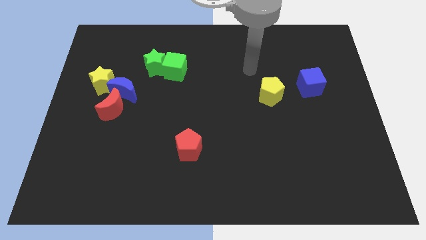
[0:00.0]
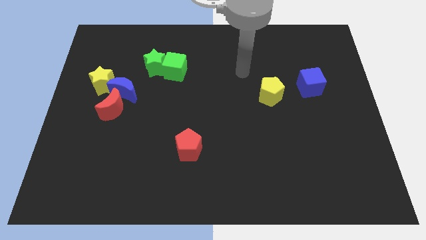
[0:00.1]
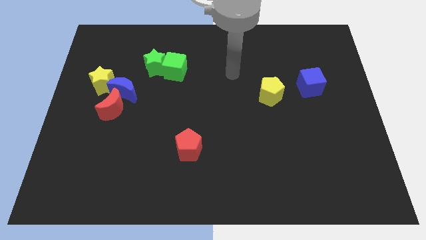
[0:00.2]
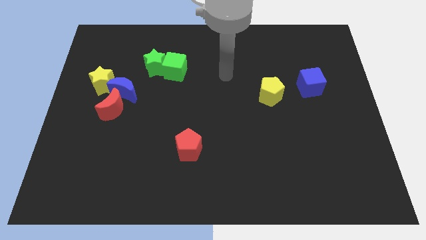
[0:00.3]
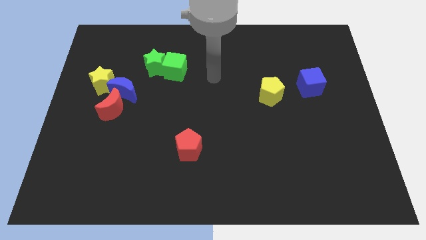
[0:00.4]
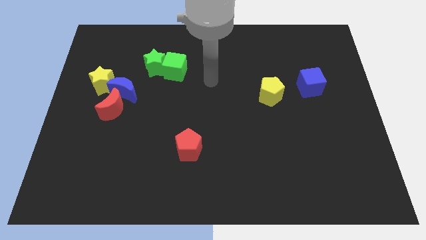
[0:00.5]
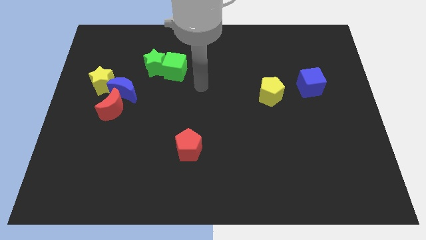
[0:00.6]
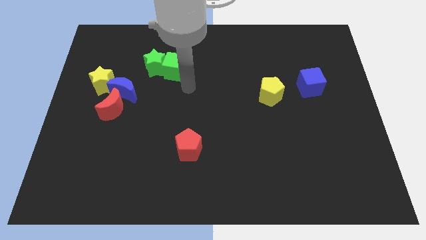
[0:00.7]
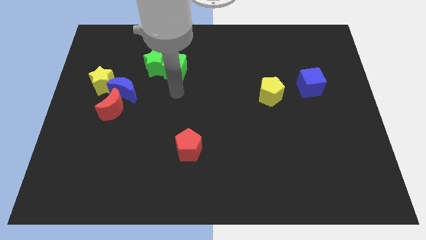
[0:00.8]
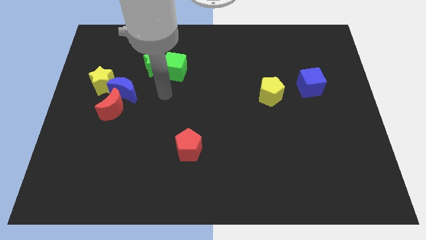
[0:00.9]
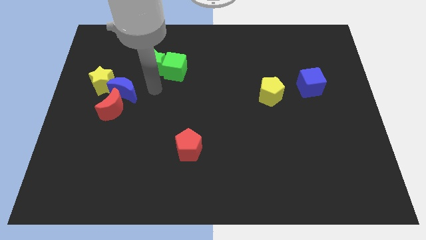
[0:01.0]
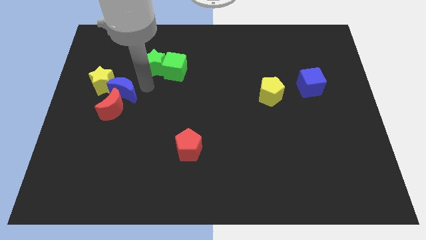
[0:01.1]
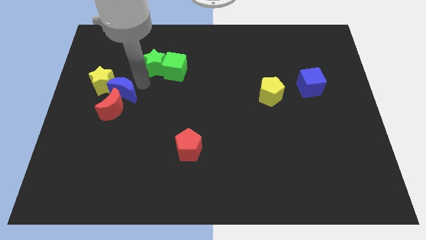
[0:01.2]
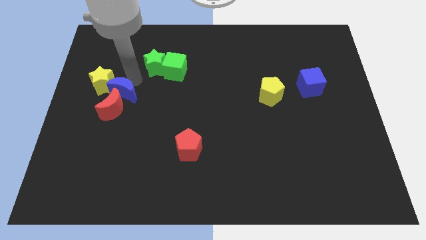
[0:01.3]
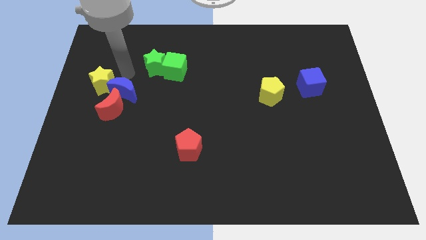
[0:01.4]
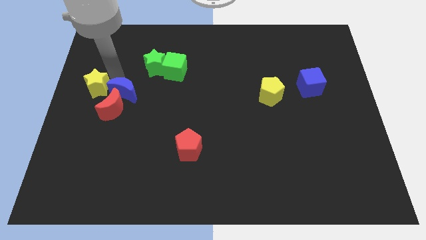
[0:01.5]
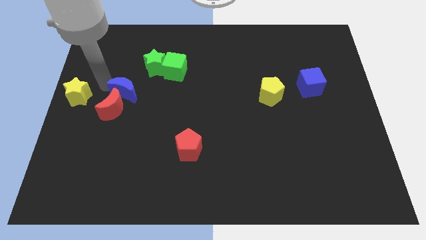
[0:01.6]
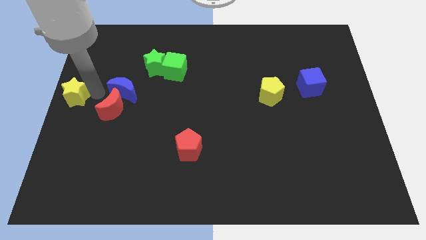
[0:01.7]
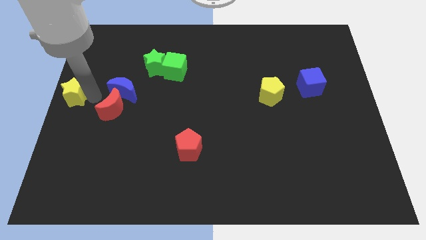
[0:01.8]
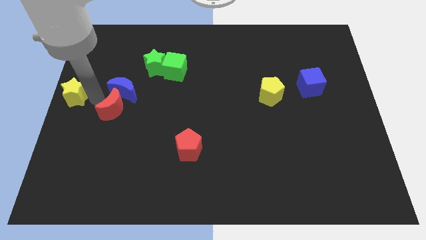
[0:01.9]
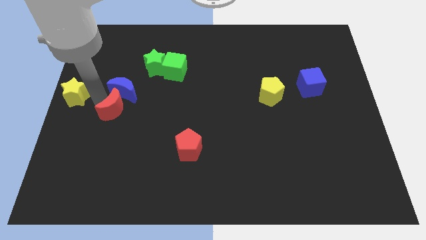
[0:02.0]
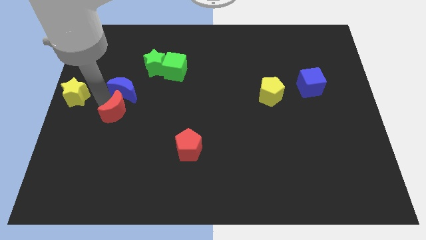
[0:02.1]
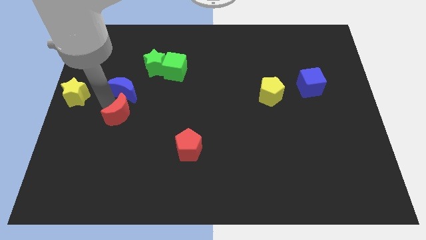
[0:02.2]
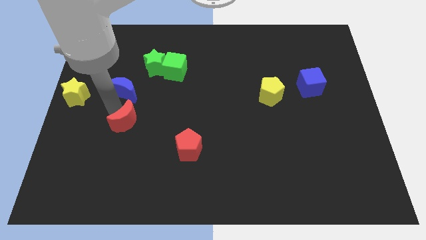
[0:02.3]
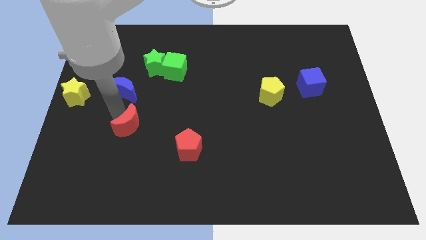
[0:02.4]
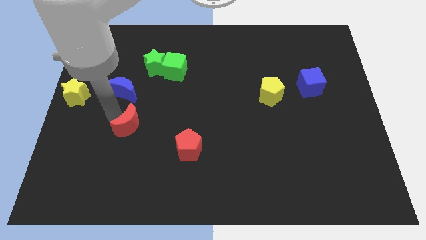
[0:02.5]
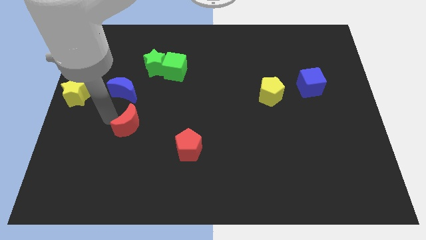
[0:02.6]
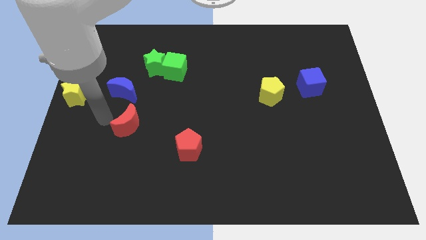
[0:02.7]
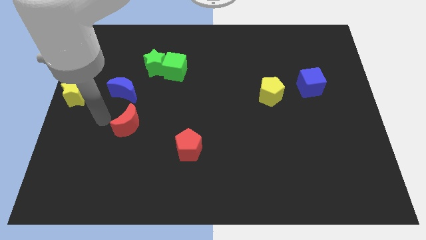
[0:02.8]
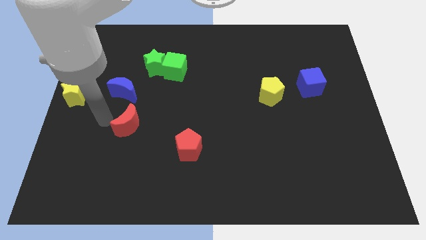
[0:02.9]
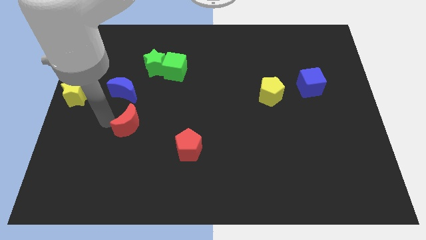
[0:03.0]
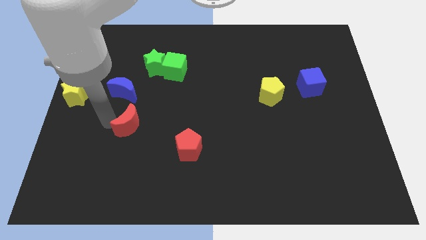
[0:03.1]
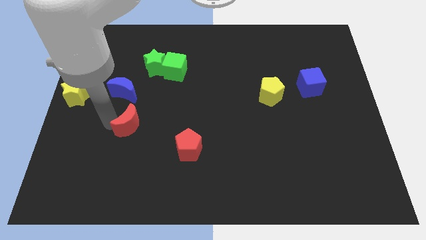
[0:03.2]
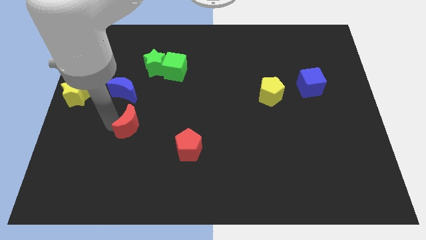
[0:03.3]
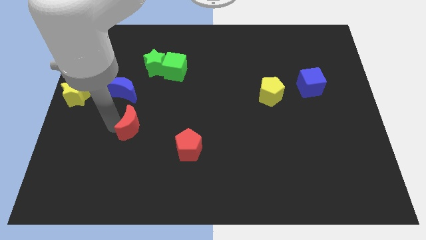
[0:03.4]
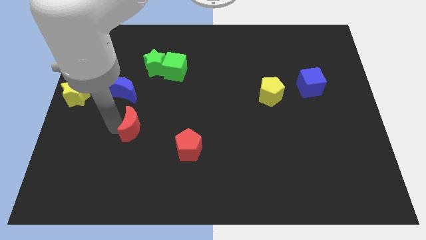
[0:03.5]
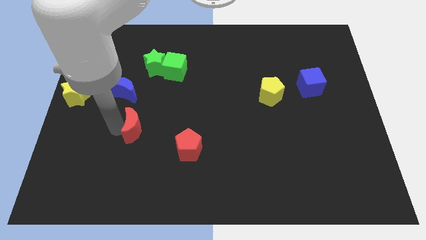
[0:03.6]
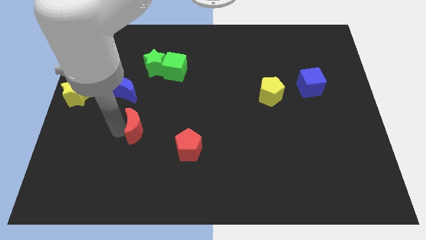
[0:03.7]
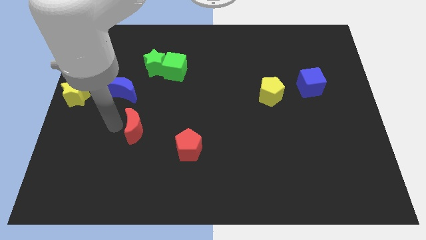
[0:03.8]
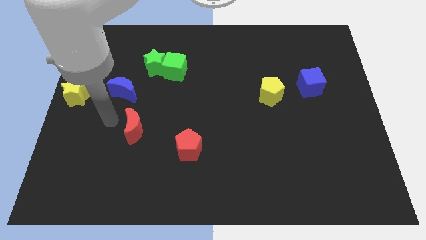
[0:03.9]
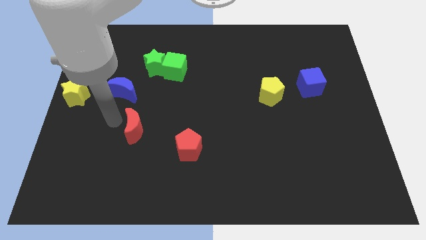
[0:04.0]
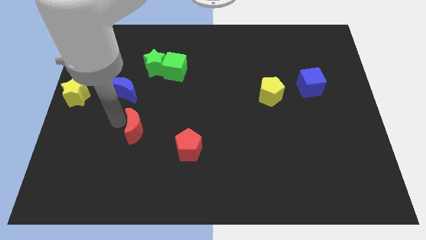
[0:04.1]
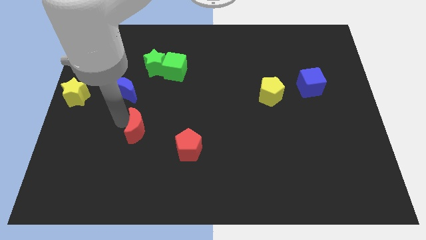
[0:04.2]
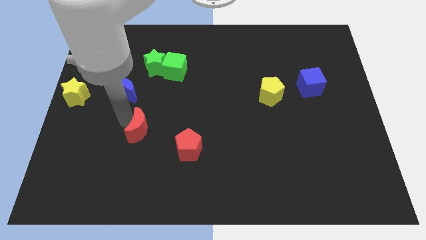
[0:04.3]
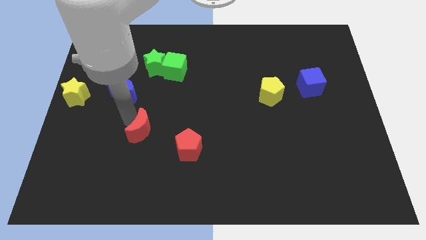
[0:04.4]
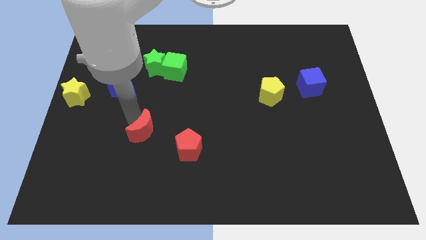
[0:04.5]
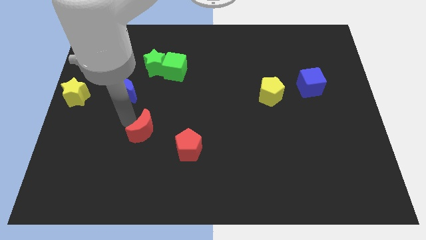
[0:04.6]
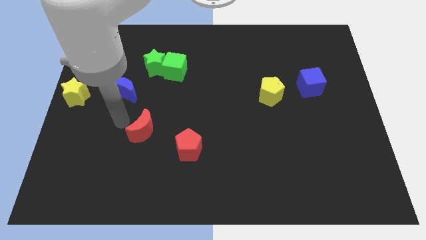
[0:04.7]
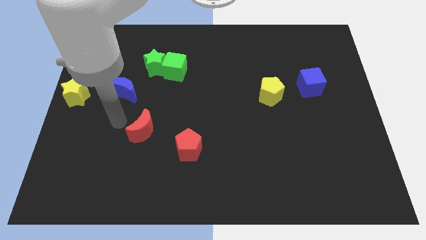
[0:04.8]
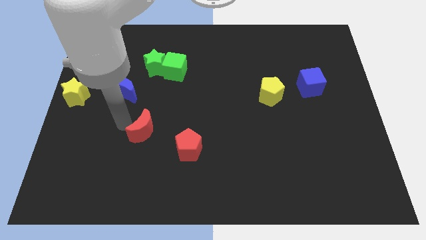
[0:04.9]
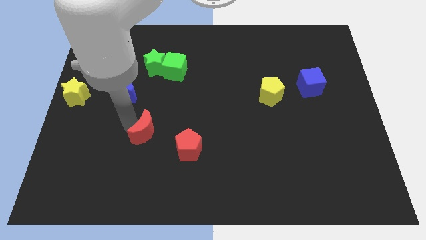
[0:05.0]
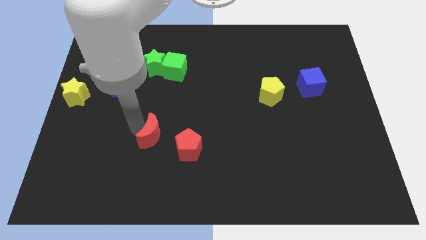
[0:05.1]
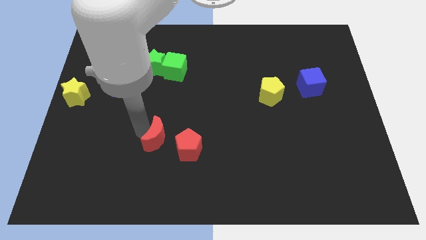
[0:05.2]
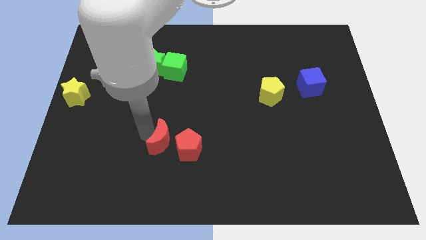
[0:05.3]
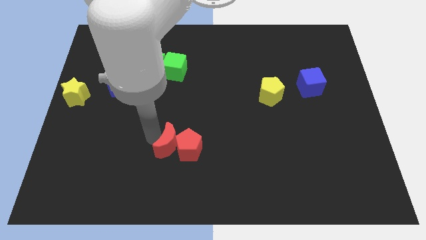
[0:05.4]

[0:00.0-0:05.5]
slide the red moon to the red pentagon

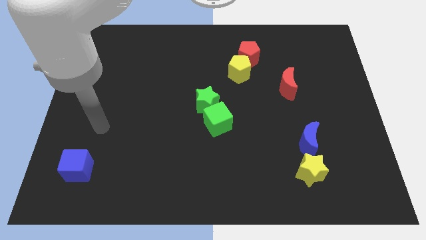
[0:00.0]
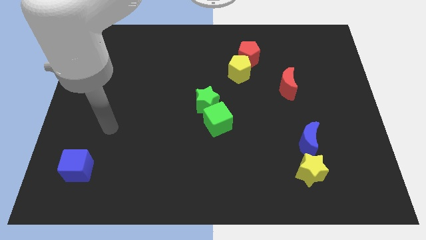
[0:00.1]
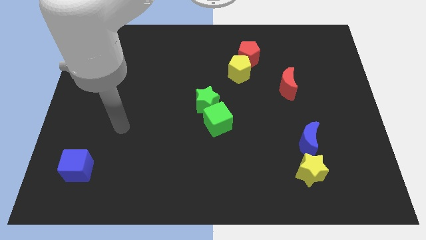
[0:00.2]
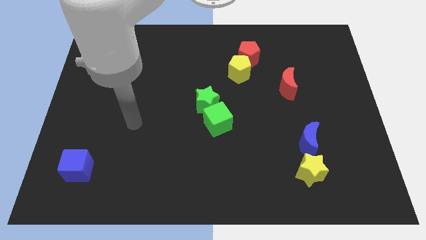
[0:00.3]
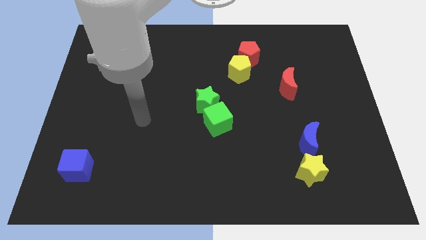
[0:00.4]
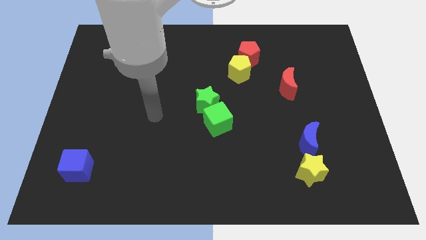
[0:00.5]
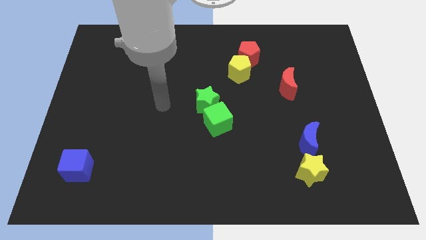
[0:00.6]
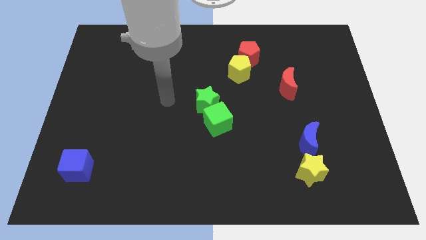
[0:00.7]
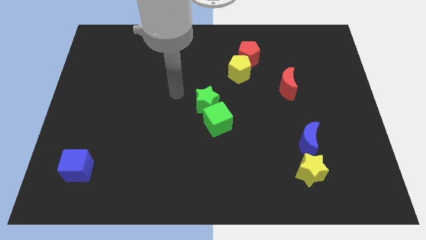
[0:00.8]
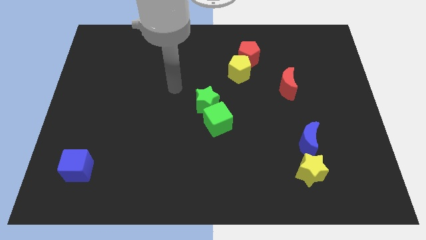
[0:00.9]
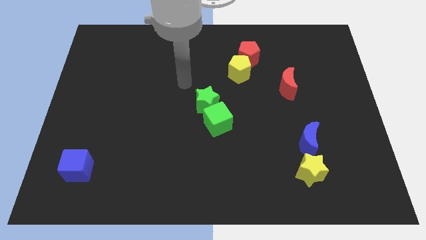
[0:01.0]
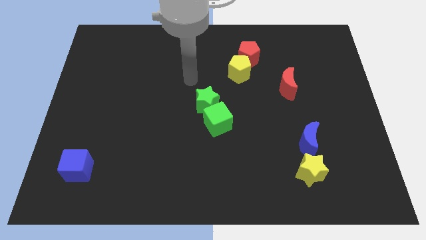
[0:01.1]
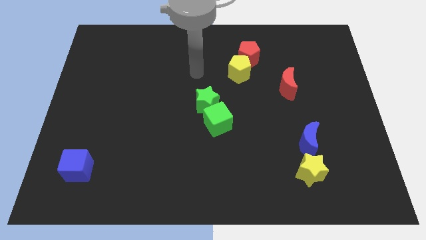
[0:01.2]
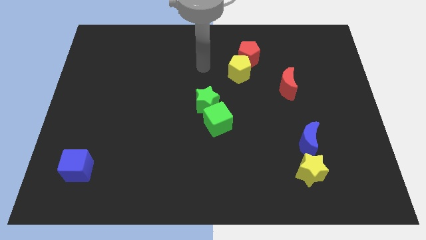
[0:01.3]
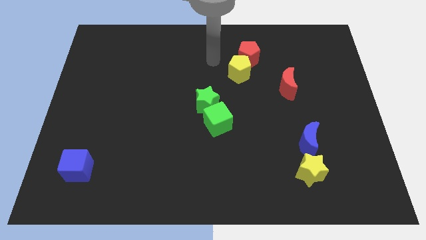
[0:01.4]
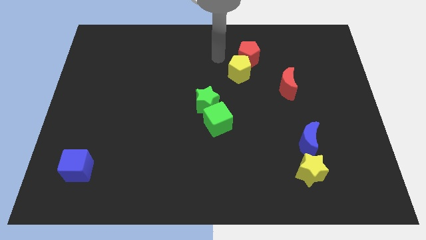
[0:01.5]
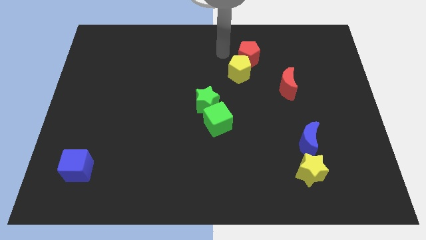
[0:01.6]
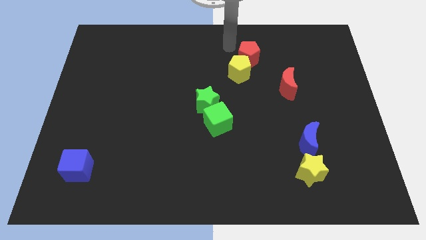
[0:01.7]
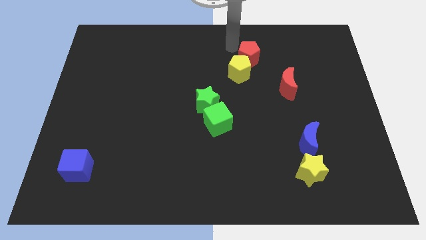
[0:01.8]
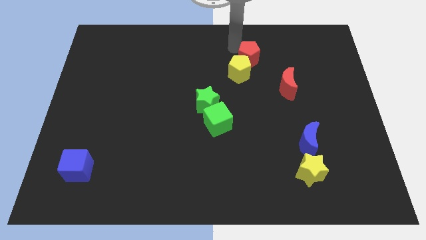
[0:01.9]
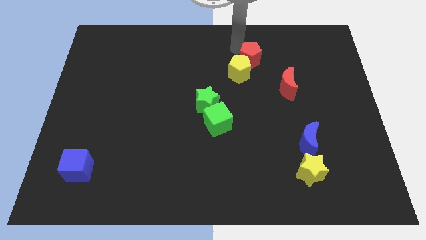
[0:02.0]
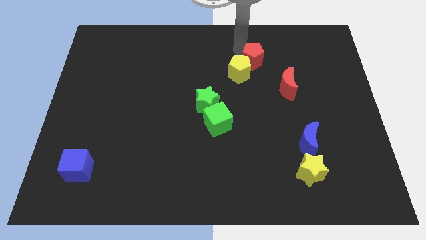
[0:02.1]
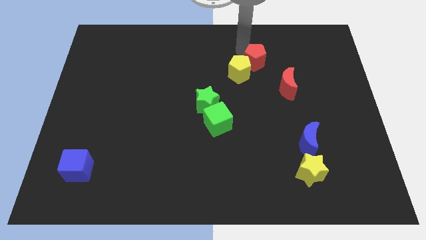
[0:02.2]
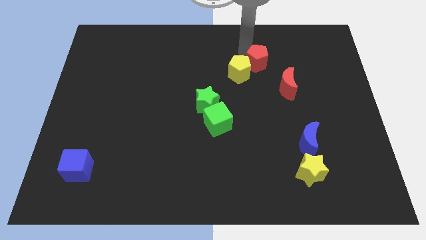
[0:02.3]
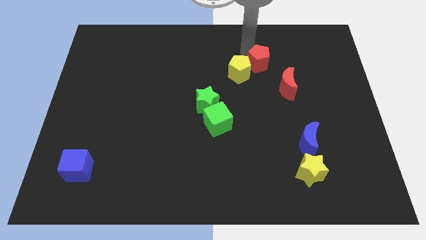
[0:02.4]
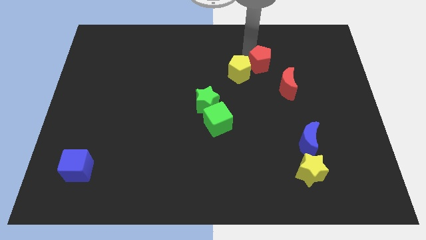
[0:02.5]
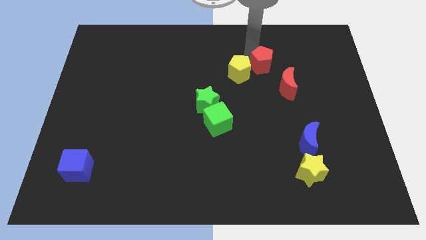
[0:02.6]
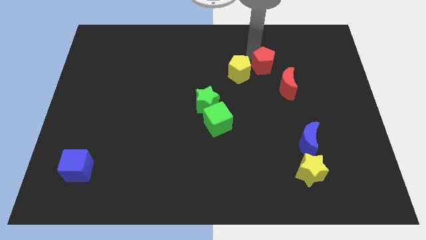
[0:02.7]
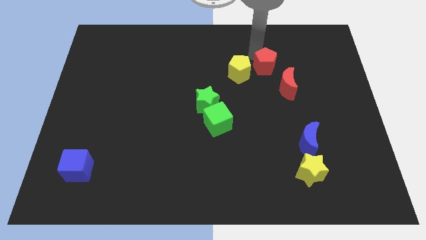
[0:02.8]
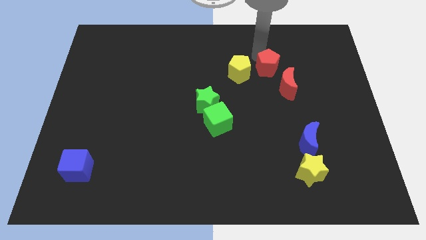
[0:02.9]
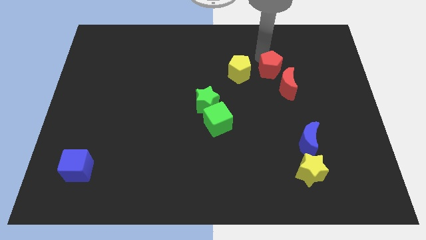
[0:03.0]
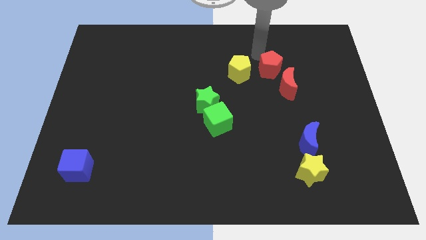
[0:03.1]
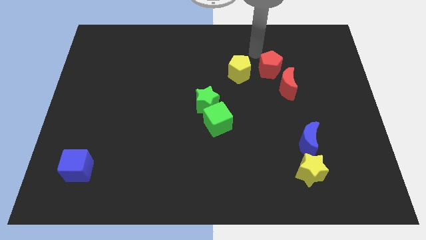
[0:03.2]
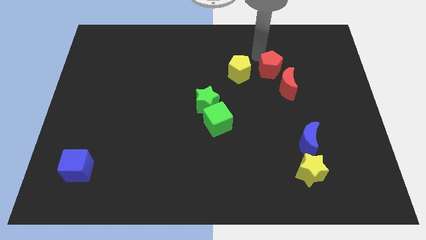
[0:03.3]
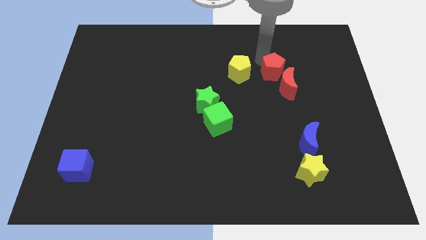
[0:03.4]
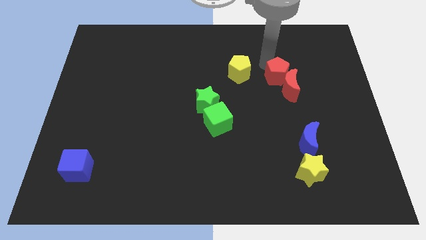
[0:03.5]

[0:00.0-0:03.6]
put the red pentagon close to the red moon
